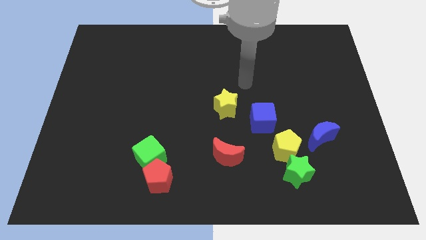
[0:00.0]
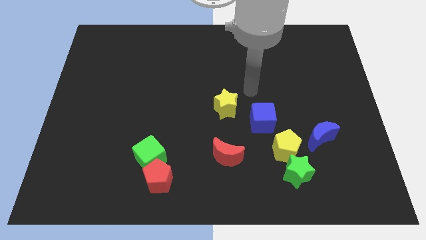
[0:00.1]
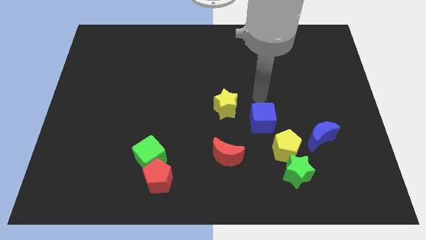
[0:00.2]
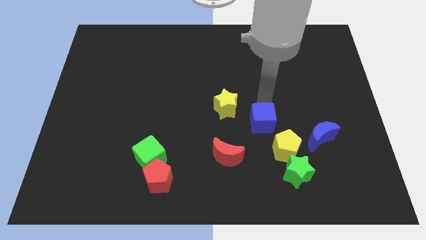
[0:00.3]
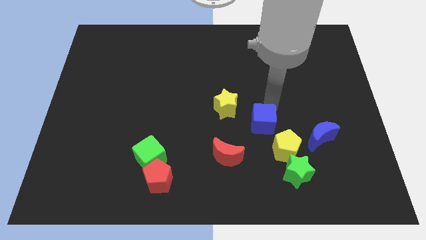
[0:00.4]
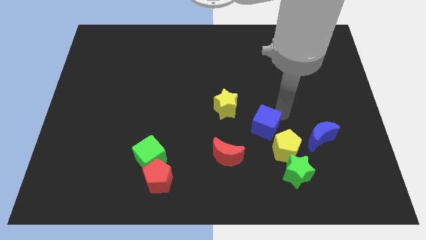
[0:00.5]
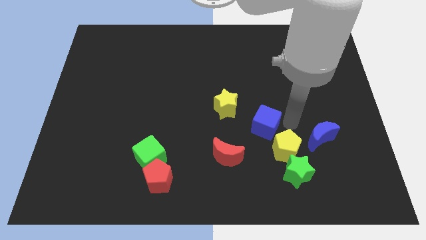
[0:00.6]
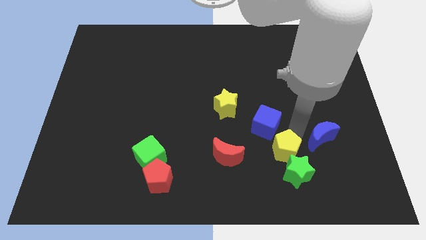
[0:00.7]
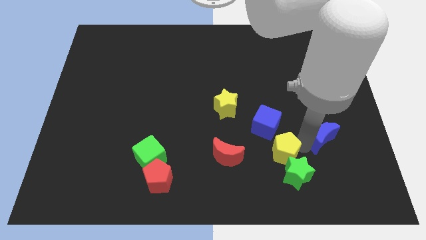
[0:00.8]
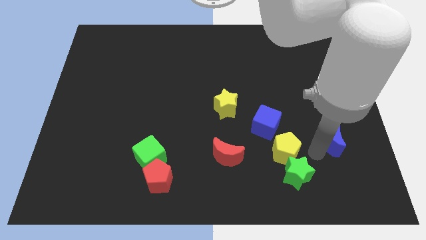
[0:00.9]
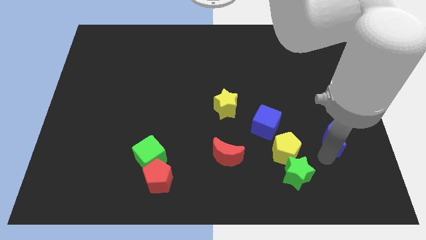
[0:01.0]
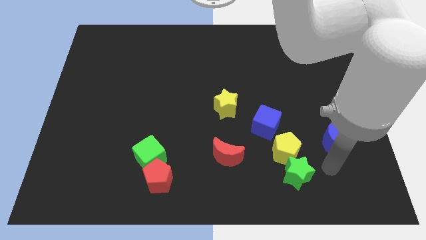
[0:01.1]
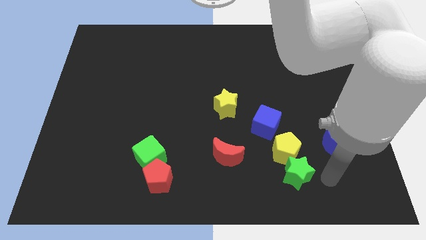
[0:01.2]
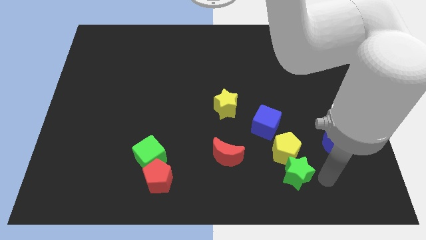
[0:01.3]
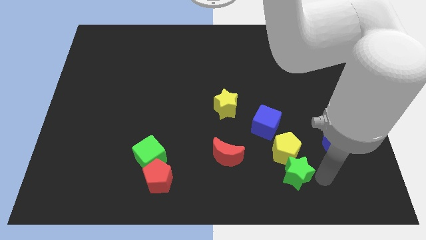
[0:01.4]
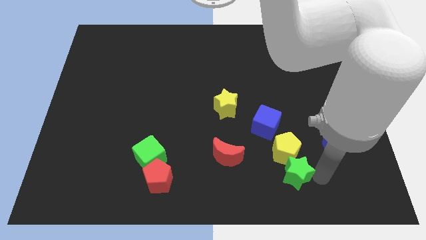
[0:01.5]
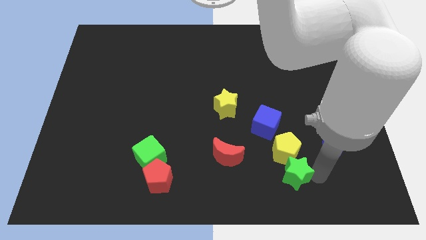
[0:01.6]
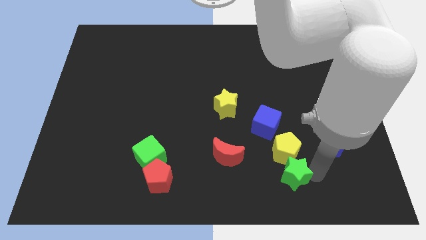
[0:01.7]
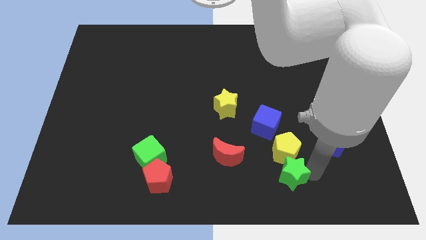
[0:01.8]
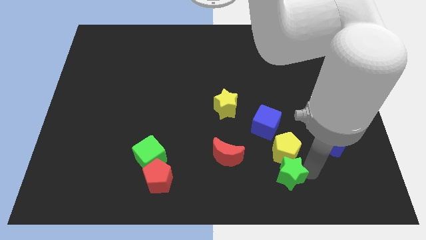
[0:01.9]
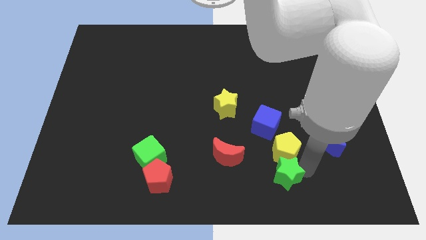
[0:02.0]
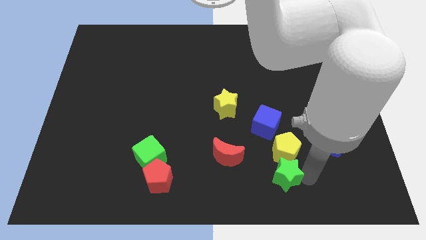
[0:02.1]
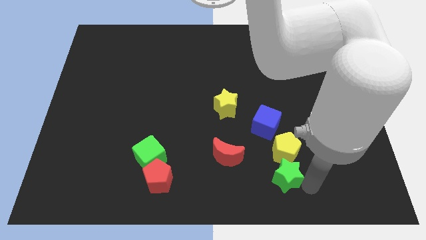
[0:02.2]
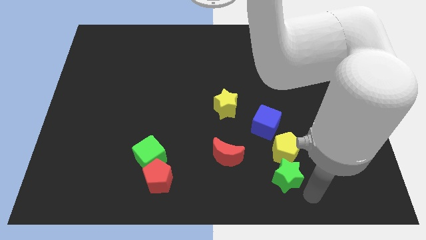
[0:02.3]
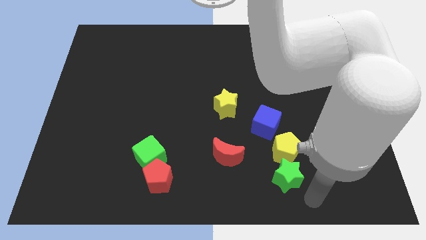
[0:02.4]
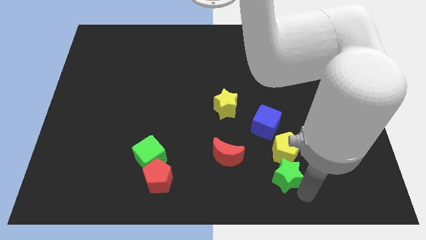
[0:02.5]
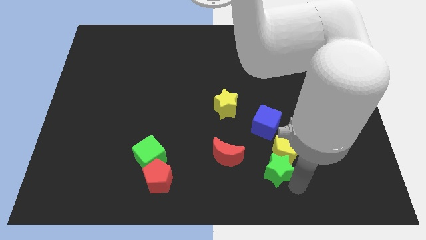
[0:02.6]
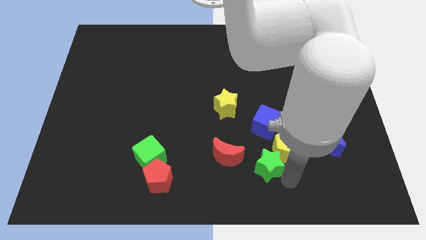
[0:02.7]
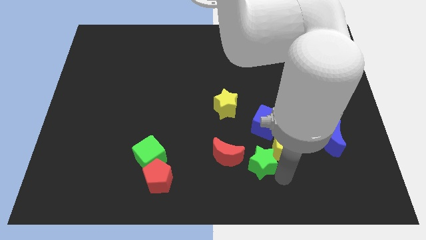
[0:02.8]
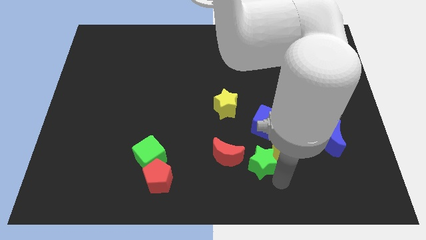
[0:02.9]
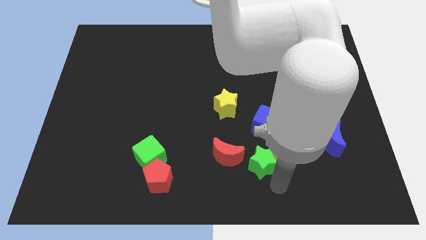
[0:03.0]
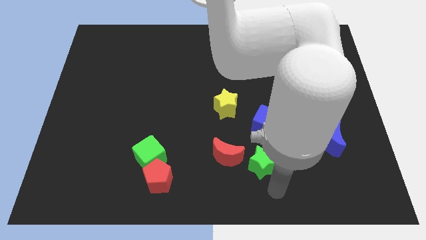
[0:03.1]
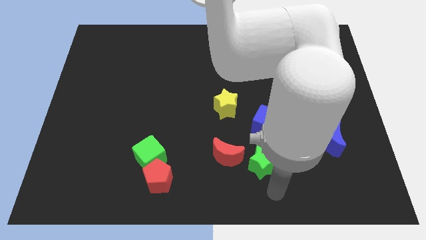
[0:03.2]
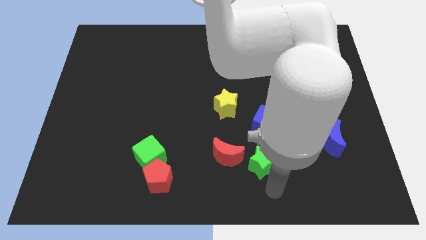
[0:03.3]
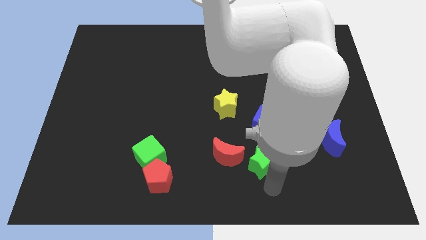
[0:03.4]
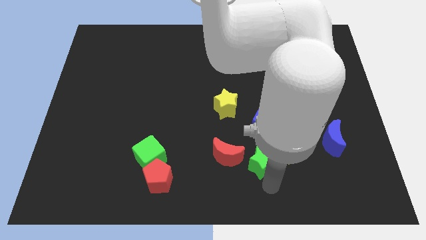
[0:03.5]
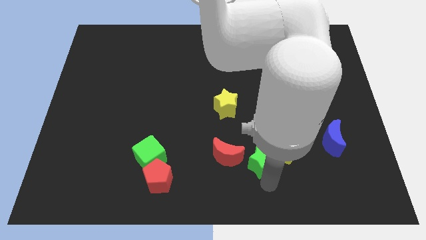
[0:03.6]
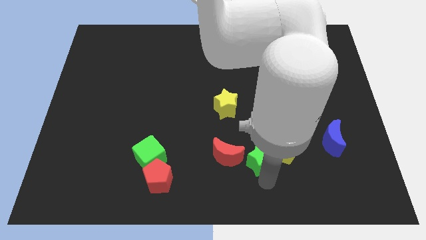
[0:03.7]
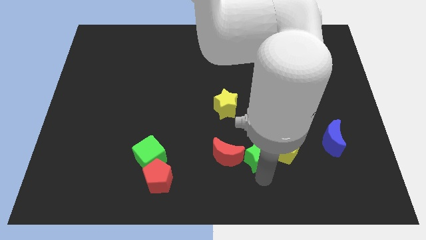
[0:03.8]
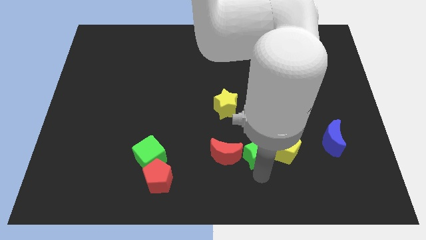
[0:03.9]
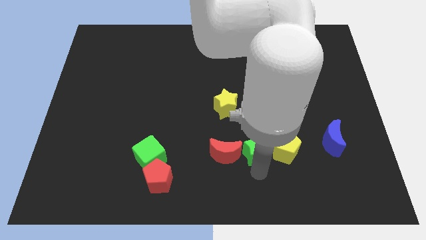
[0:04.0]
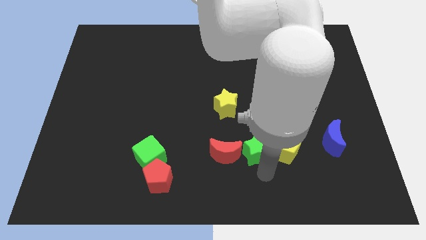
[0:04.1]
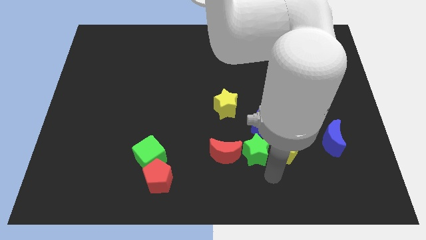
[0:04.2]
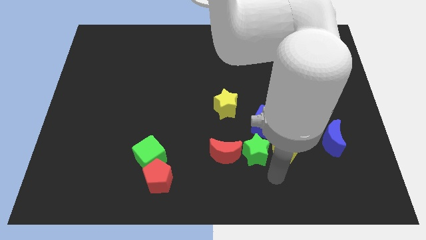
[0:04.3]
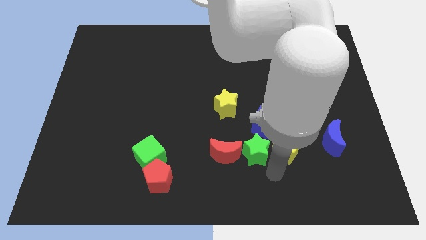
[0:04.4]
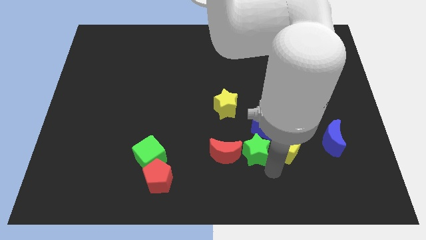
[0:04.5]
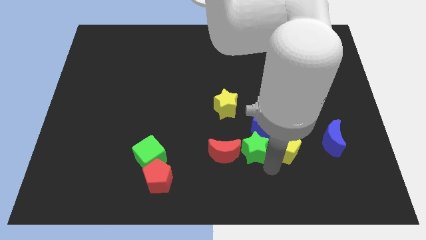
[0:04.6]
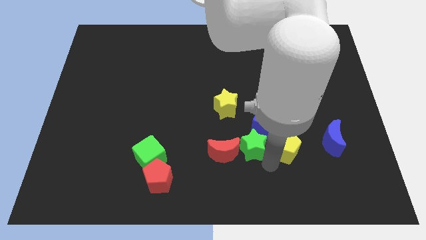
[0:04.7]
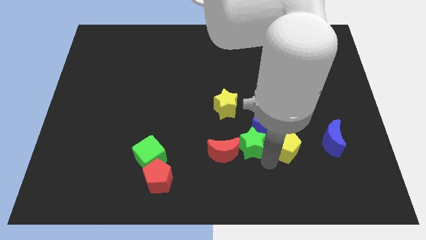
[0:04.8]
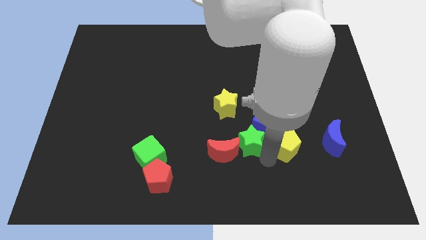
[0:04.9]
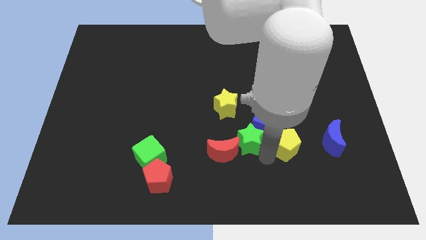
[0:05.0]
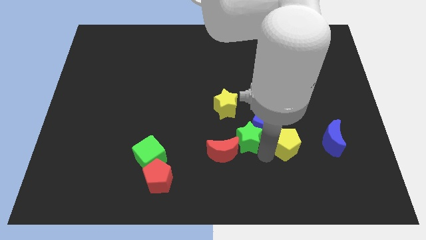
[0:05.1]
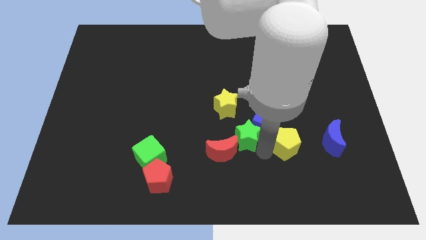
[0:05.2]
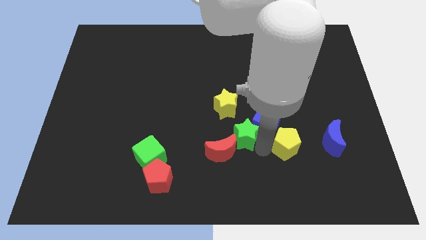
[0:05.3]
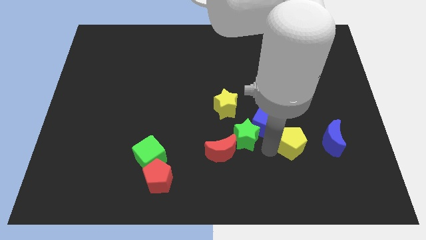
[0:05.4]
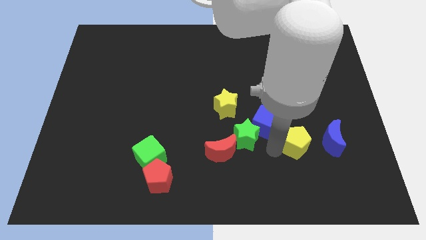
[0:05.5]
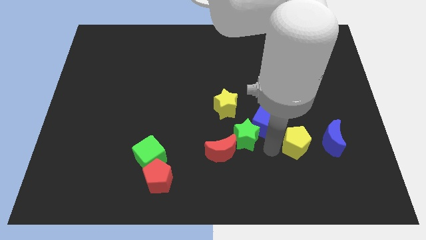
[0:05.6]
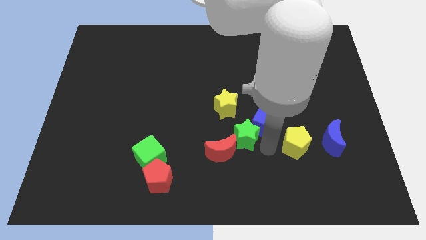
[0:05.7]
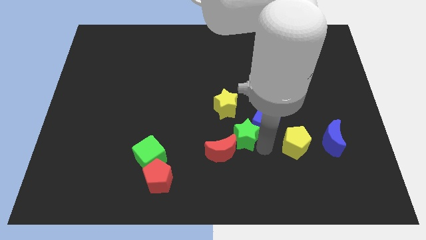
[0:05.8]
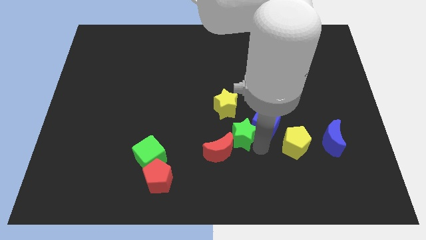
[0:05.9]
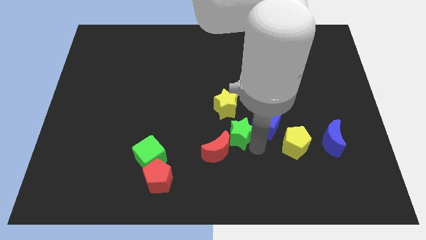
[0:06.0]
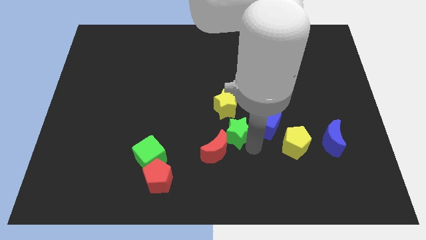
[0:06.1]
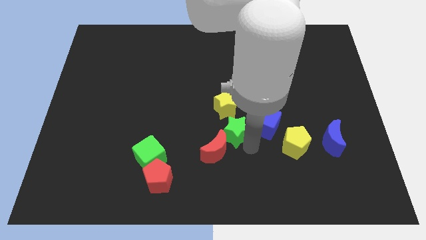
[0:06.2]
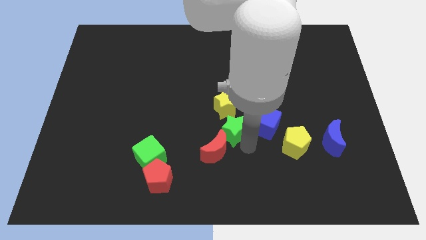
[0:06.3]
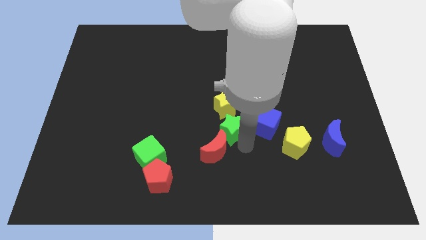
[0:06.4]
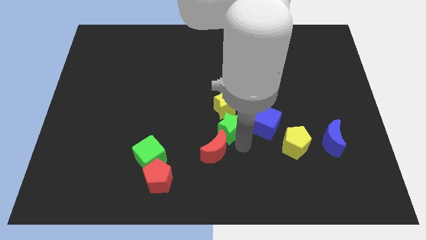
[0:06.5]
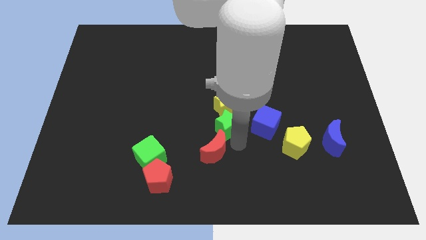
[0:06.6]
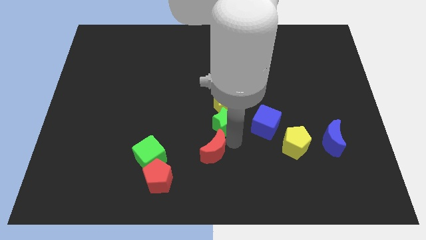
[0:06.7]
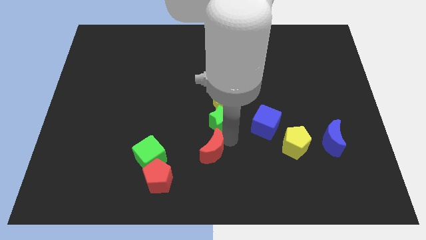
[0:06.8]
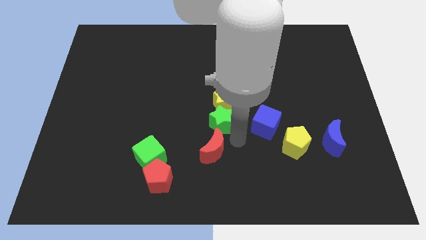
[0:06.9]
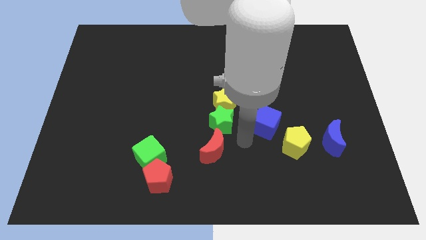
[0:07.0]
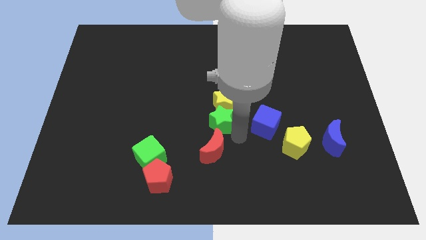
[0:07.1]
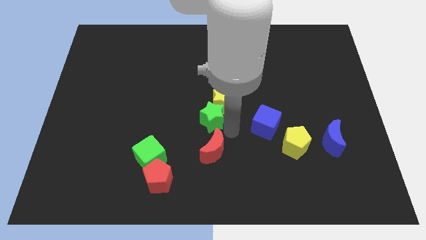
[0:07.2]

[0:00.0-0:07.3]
push the green star up and to the left

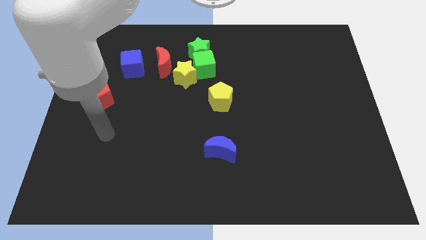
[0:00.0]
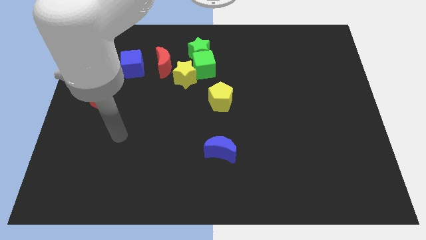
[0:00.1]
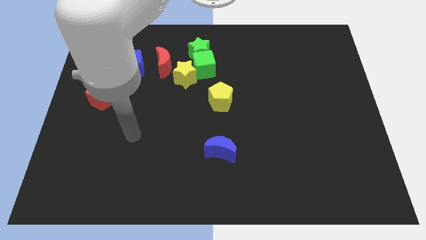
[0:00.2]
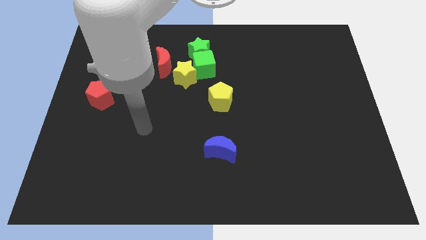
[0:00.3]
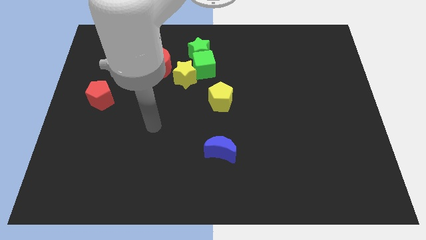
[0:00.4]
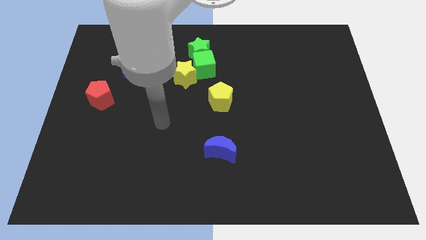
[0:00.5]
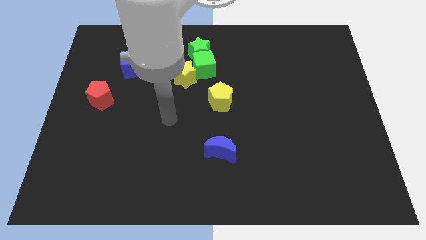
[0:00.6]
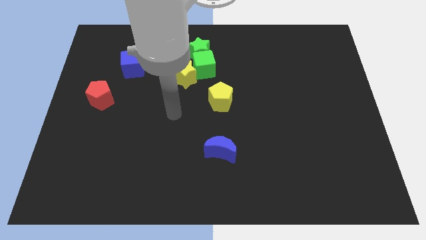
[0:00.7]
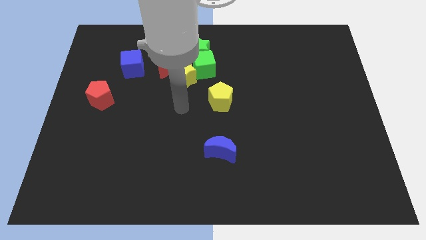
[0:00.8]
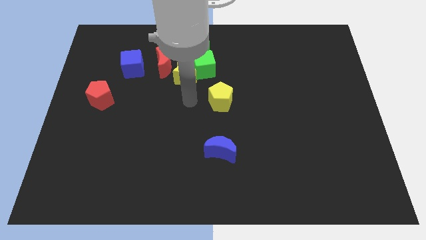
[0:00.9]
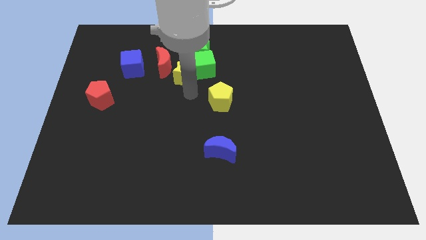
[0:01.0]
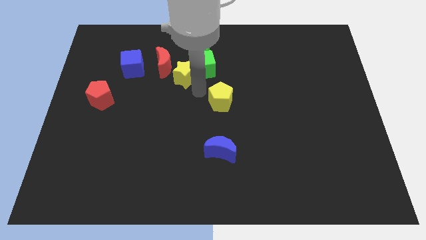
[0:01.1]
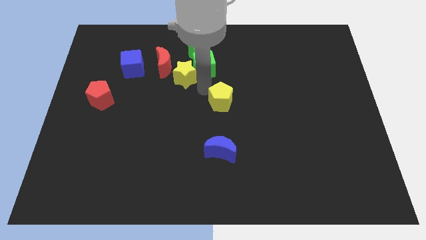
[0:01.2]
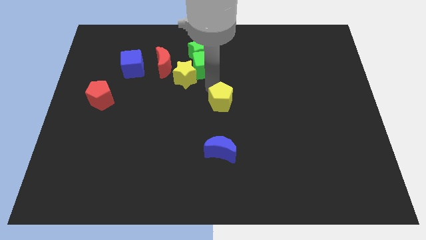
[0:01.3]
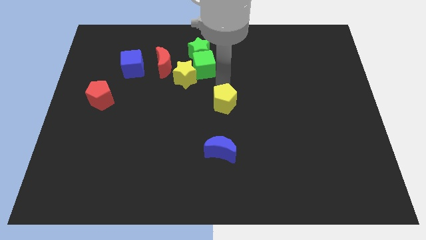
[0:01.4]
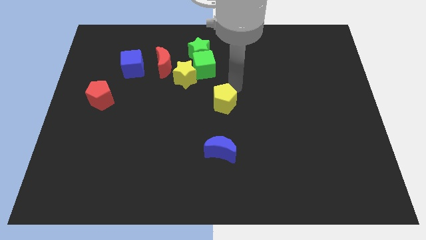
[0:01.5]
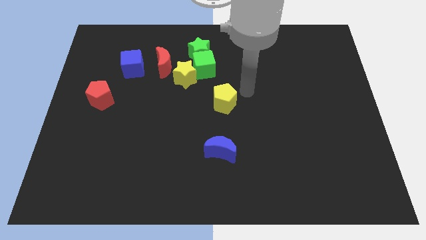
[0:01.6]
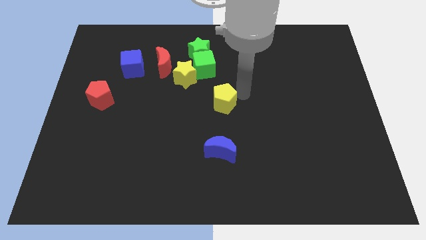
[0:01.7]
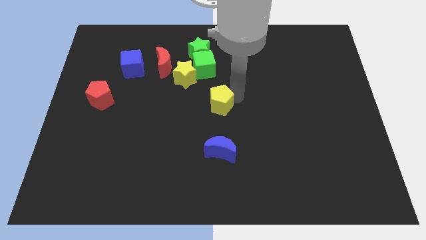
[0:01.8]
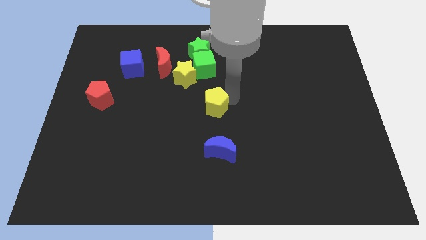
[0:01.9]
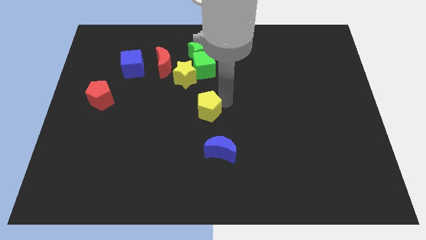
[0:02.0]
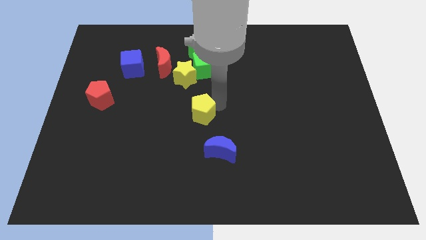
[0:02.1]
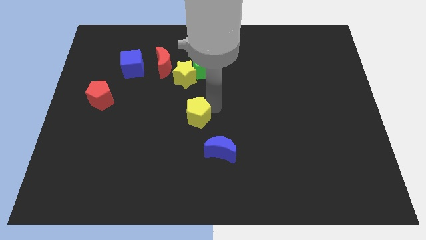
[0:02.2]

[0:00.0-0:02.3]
push the yellow pentagon down and left somewhat
